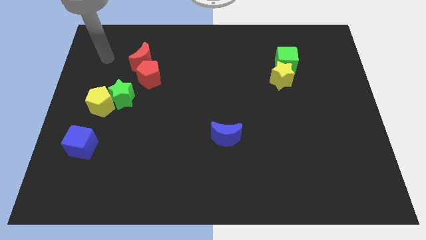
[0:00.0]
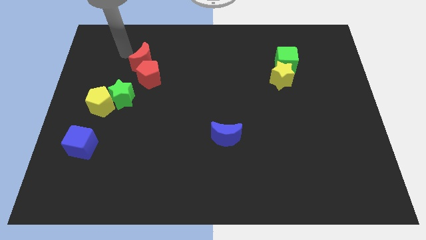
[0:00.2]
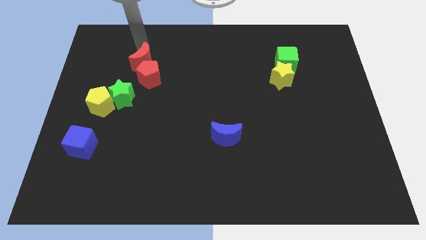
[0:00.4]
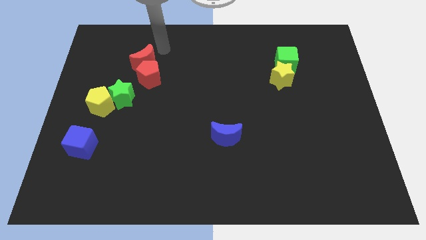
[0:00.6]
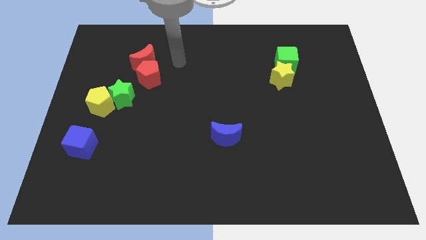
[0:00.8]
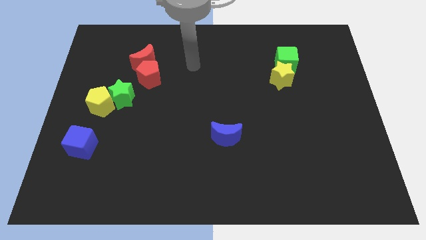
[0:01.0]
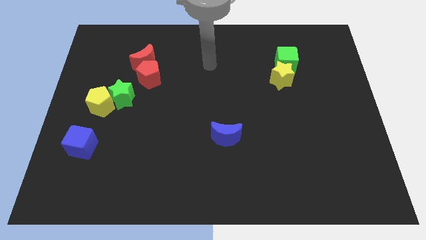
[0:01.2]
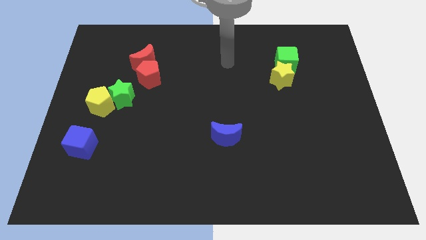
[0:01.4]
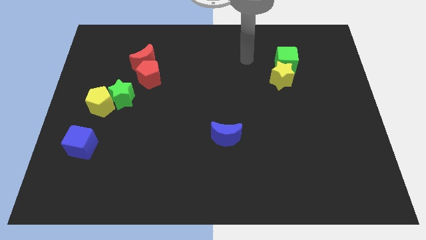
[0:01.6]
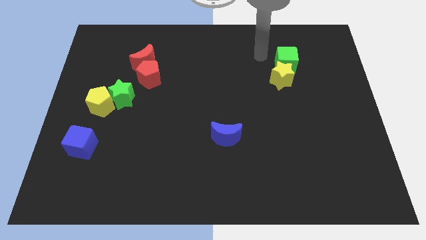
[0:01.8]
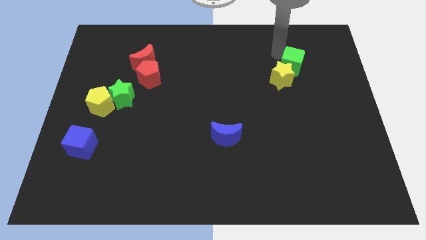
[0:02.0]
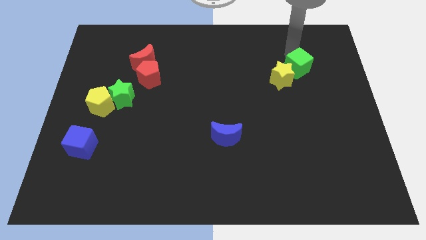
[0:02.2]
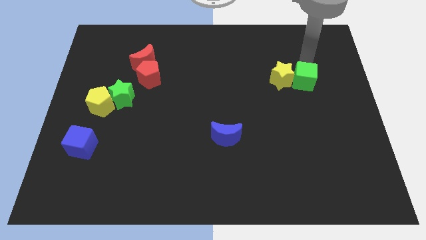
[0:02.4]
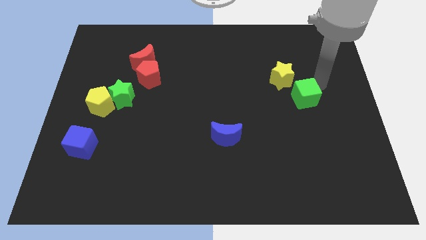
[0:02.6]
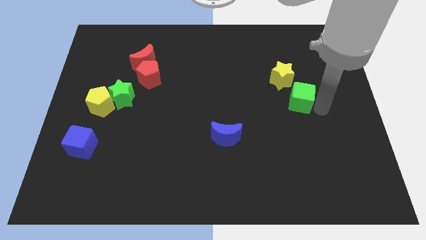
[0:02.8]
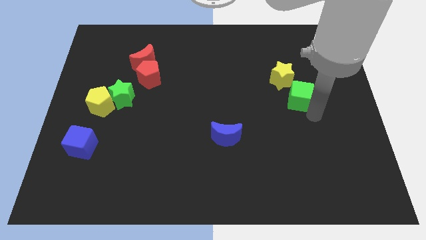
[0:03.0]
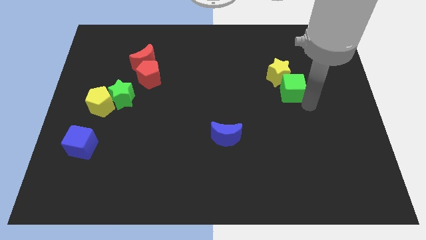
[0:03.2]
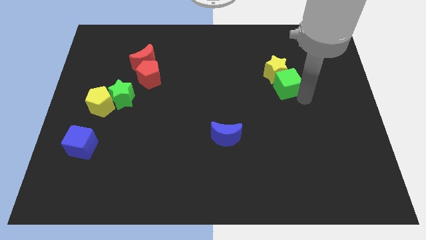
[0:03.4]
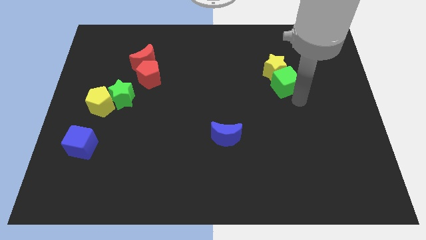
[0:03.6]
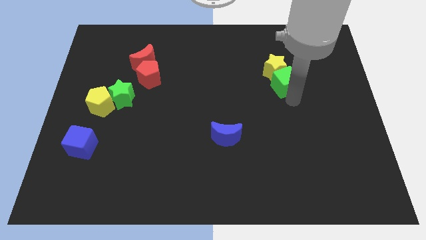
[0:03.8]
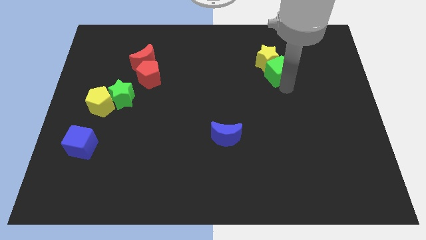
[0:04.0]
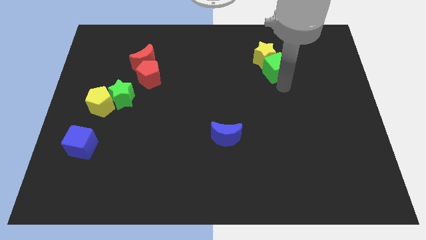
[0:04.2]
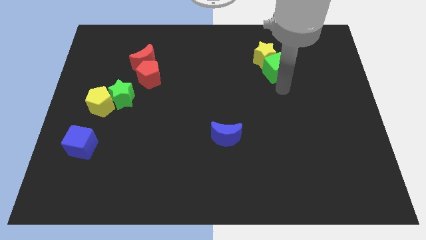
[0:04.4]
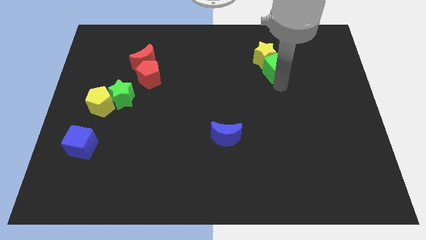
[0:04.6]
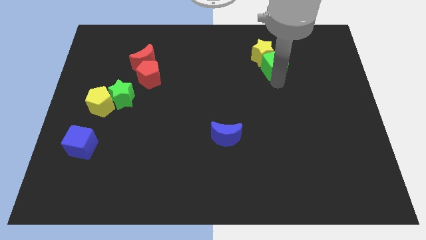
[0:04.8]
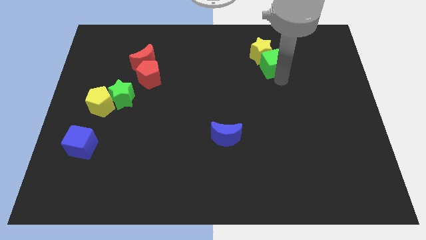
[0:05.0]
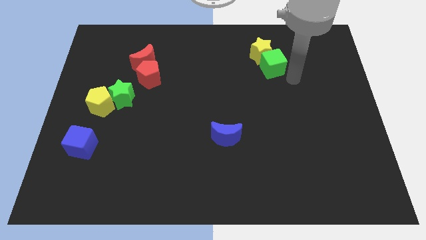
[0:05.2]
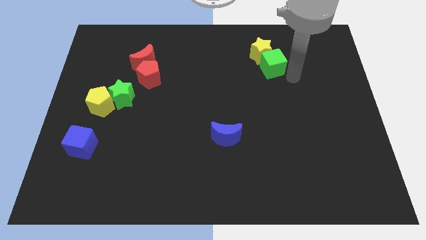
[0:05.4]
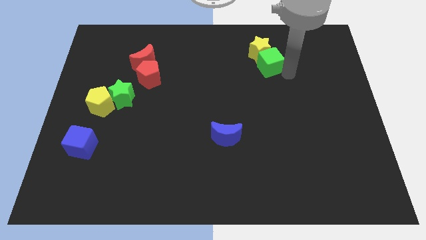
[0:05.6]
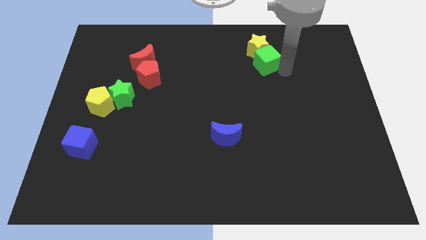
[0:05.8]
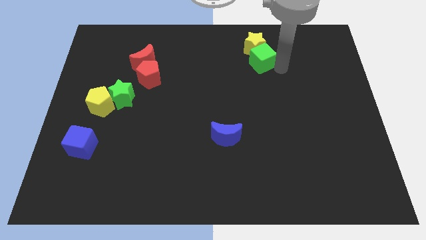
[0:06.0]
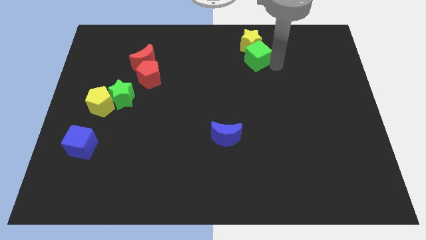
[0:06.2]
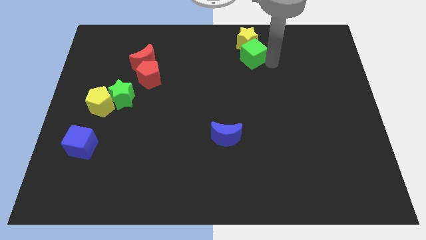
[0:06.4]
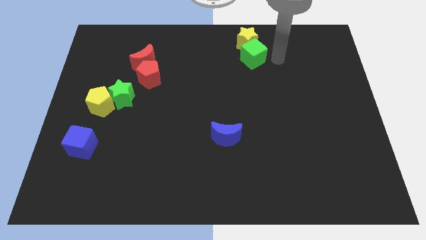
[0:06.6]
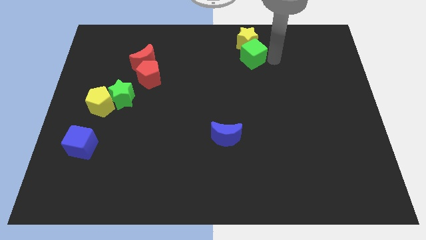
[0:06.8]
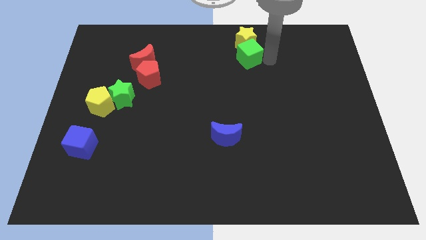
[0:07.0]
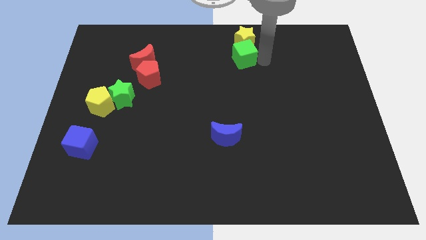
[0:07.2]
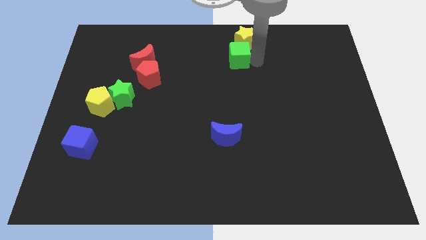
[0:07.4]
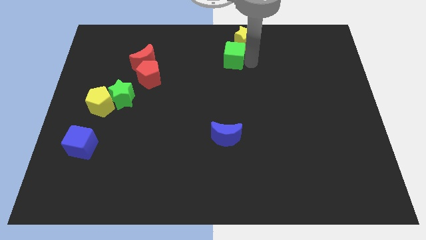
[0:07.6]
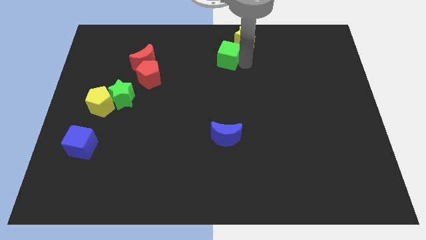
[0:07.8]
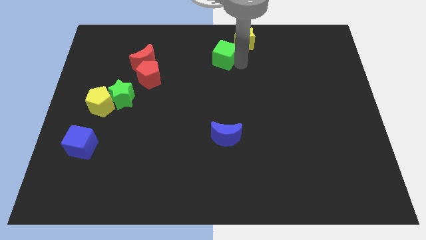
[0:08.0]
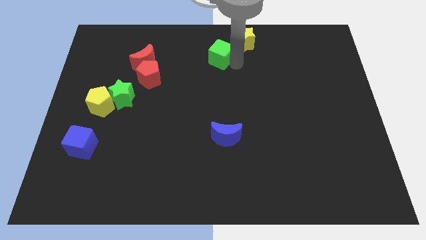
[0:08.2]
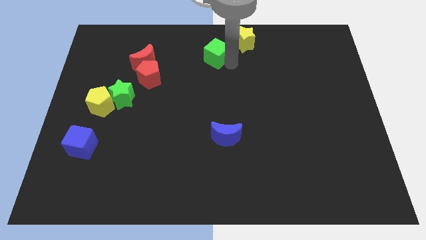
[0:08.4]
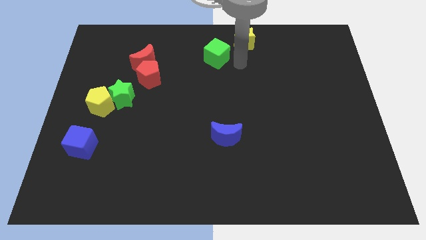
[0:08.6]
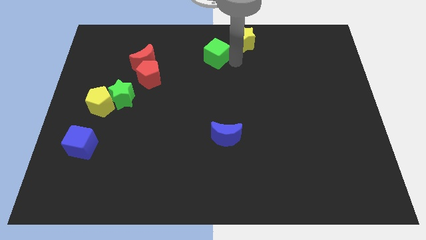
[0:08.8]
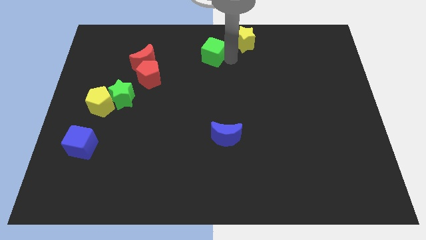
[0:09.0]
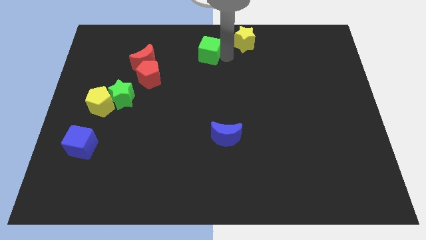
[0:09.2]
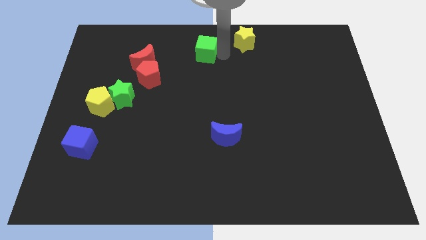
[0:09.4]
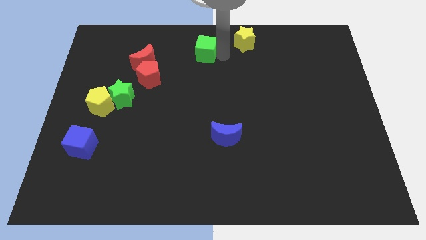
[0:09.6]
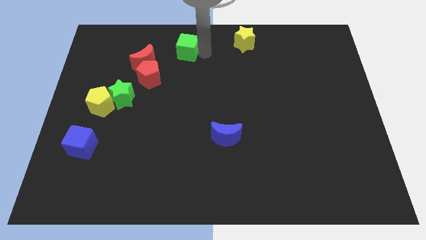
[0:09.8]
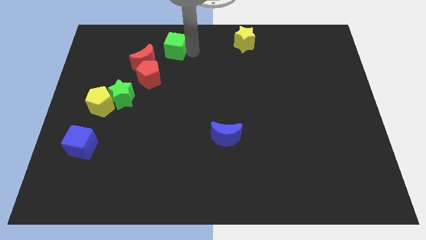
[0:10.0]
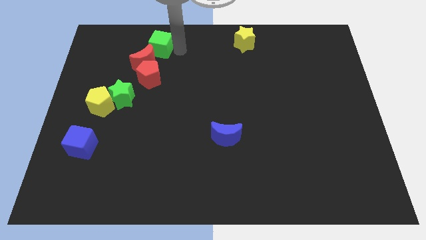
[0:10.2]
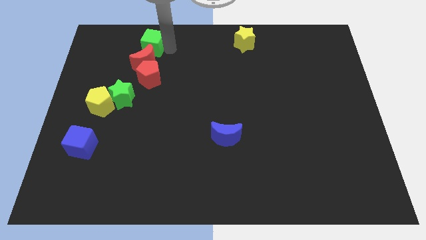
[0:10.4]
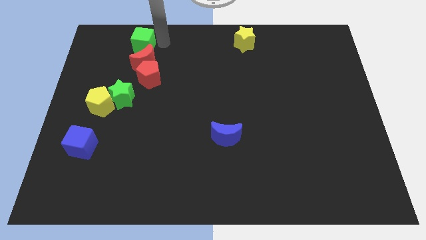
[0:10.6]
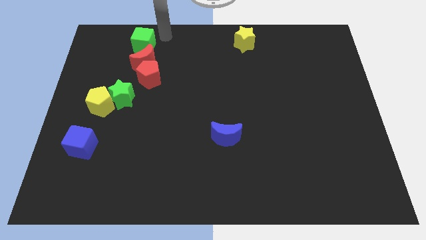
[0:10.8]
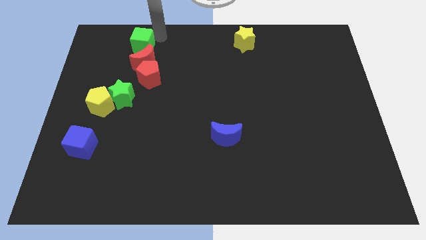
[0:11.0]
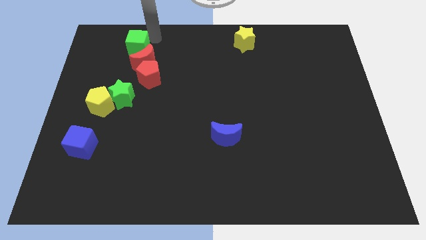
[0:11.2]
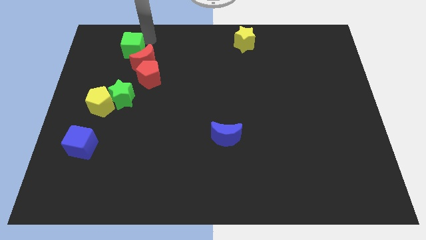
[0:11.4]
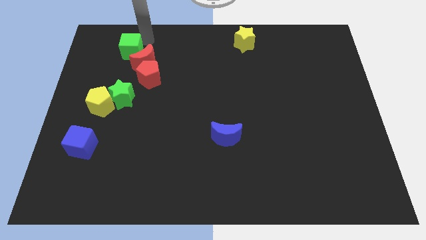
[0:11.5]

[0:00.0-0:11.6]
push the green cube left of the red moon

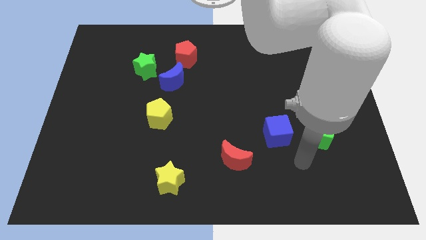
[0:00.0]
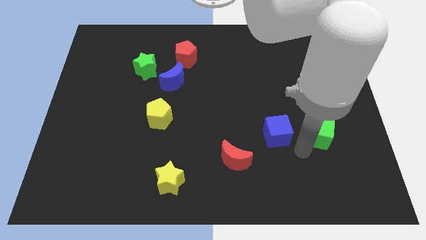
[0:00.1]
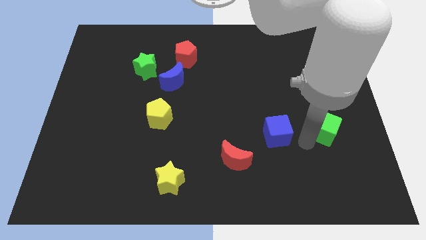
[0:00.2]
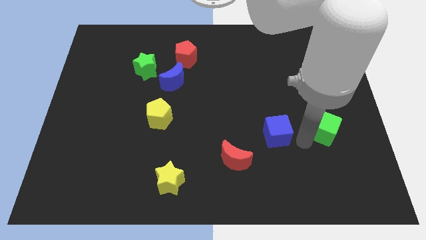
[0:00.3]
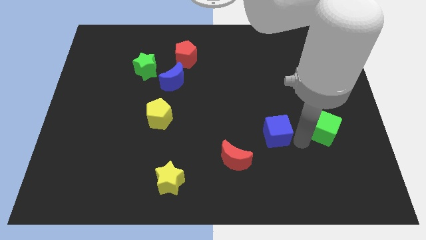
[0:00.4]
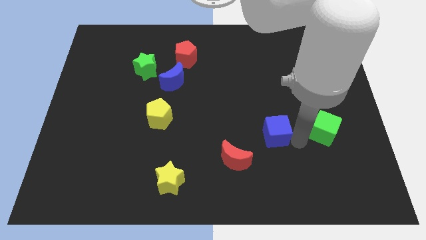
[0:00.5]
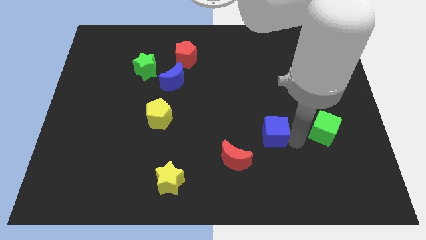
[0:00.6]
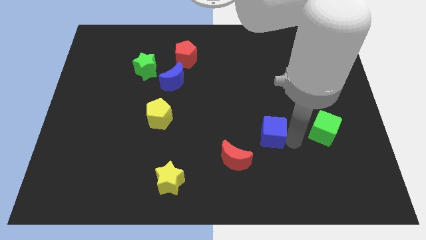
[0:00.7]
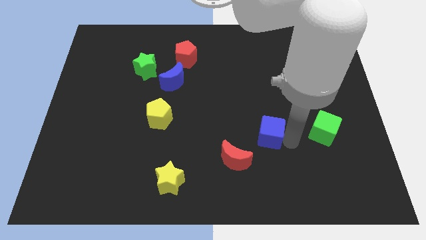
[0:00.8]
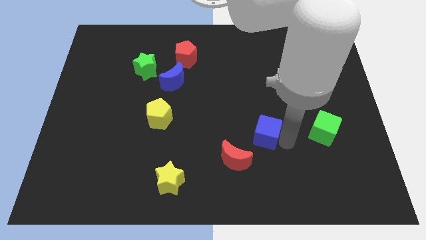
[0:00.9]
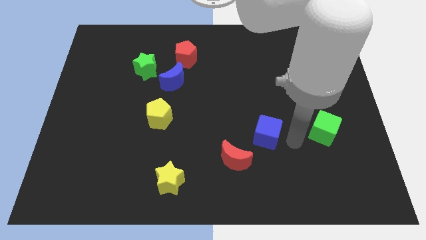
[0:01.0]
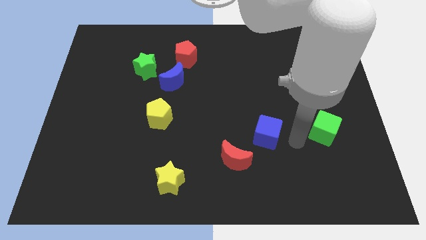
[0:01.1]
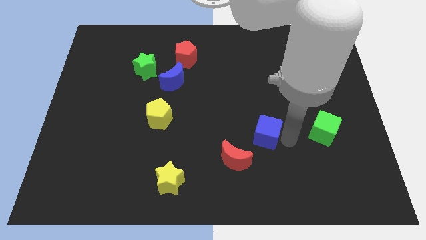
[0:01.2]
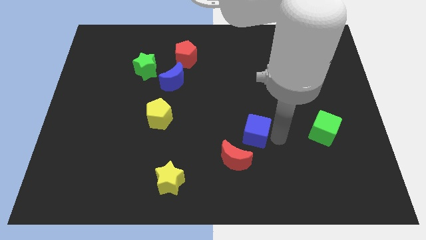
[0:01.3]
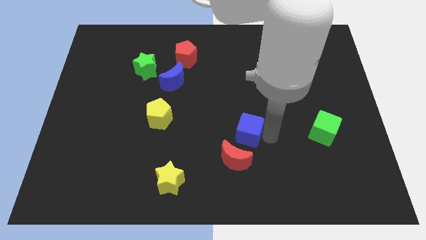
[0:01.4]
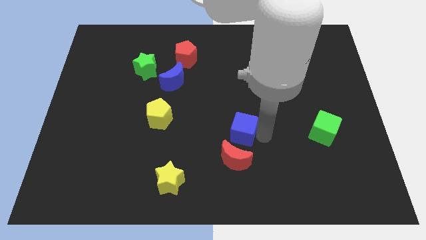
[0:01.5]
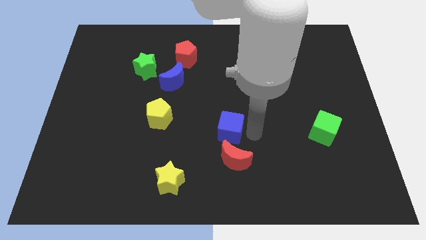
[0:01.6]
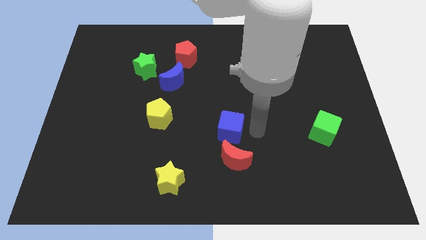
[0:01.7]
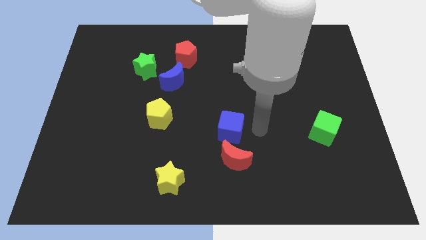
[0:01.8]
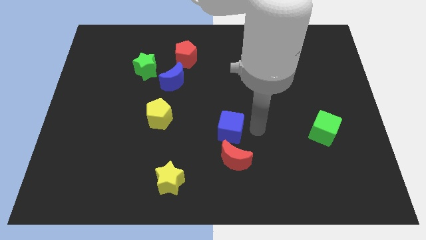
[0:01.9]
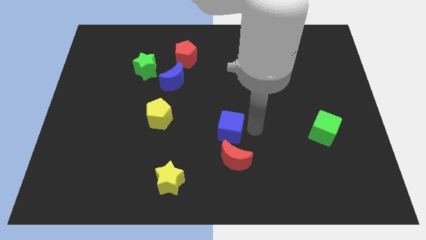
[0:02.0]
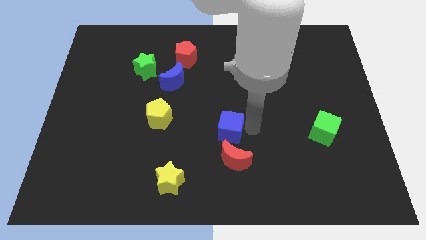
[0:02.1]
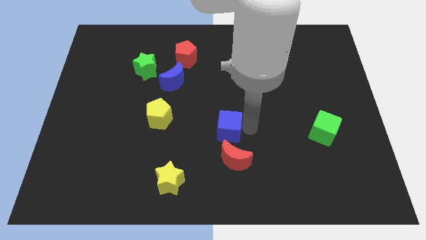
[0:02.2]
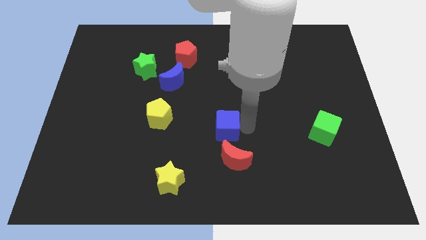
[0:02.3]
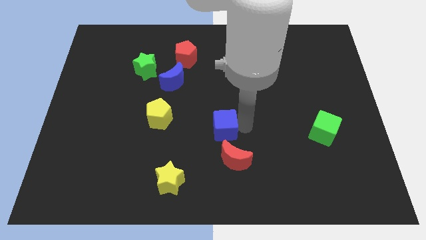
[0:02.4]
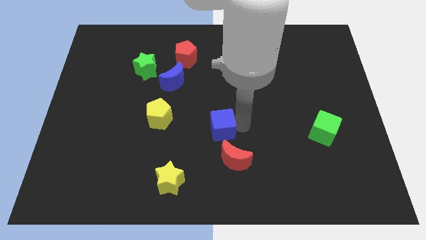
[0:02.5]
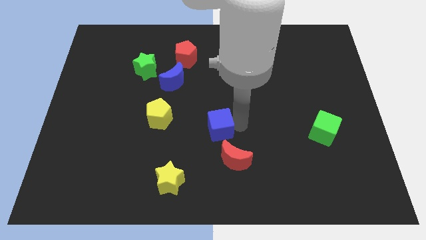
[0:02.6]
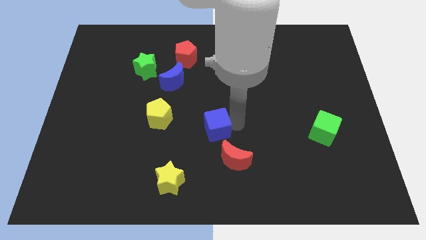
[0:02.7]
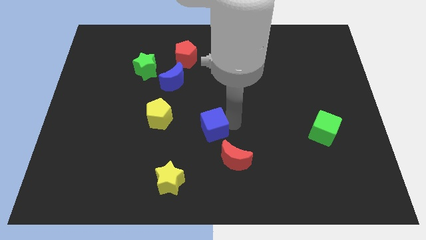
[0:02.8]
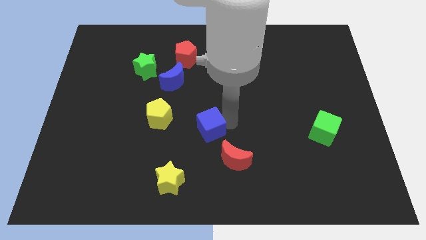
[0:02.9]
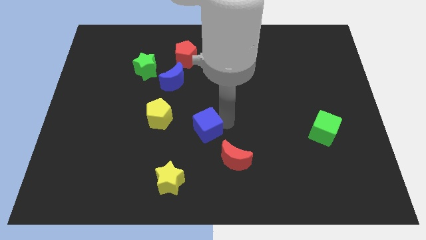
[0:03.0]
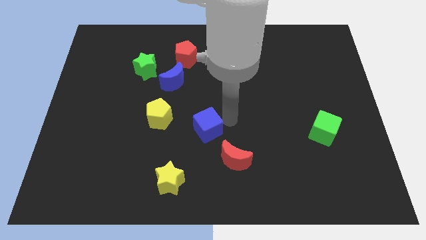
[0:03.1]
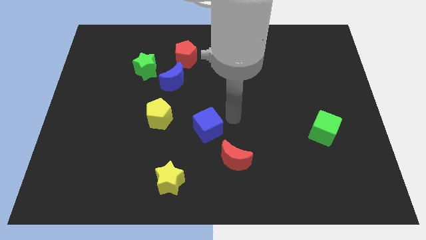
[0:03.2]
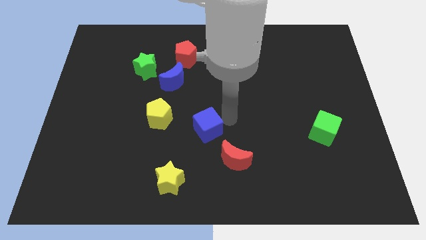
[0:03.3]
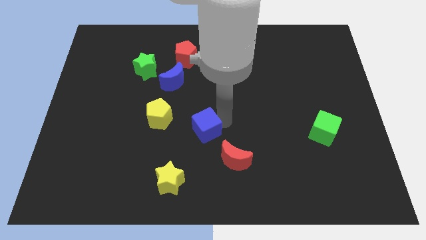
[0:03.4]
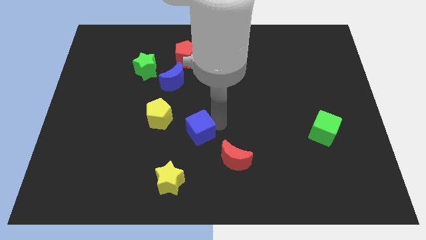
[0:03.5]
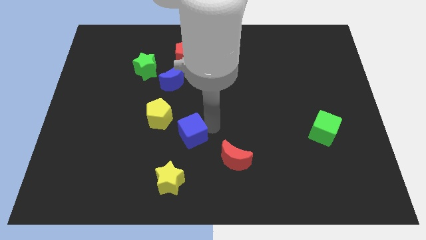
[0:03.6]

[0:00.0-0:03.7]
put the blue cube to the top side of the yellow star
